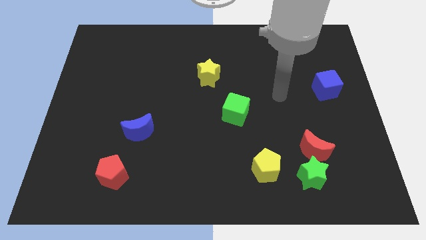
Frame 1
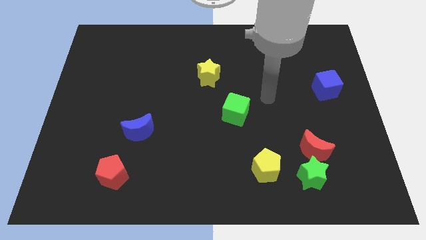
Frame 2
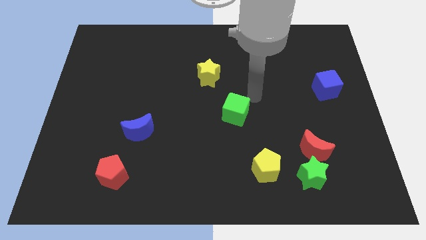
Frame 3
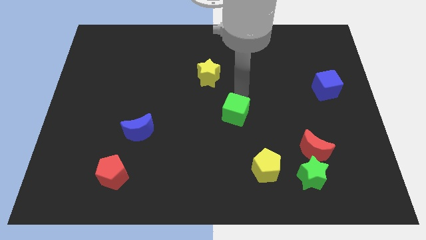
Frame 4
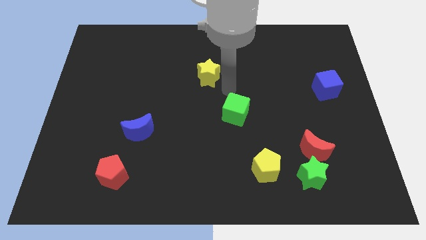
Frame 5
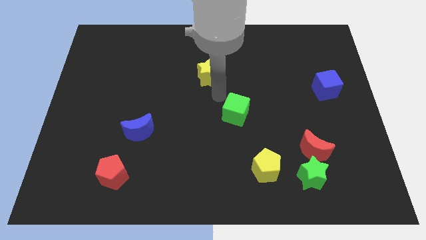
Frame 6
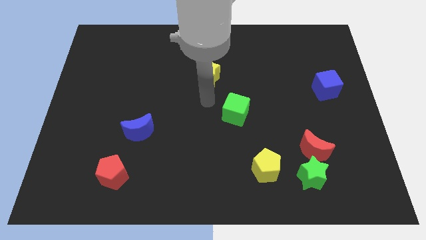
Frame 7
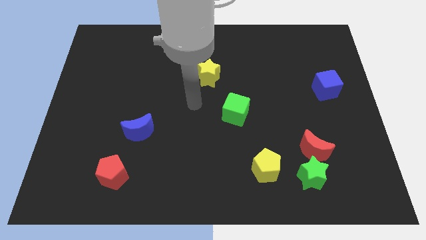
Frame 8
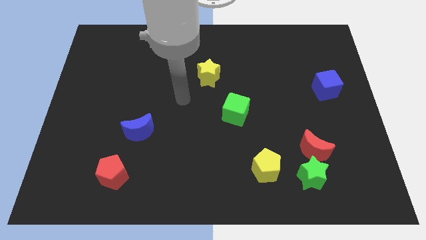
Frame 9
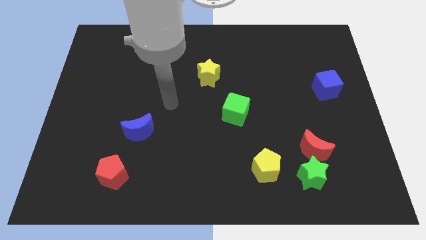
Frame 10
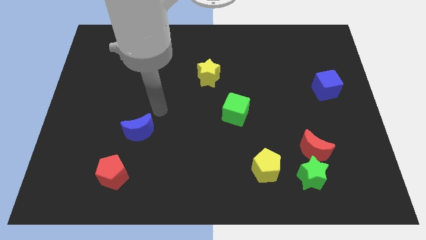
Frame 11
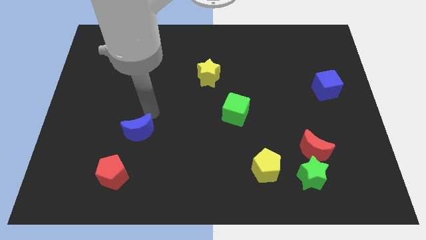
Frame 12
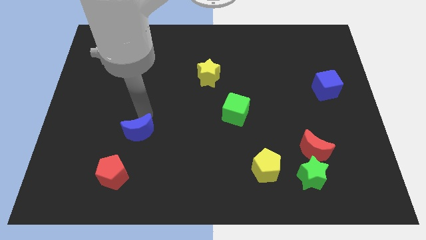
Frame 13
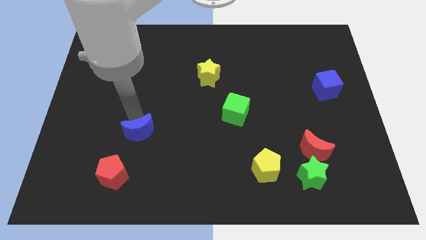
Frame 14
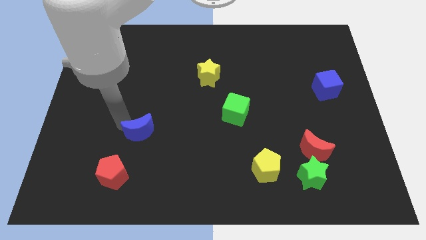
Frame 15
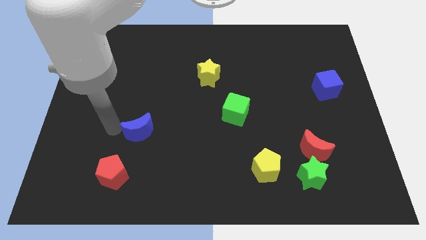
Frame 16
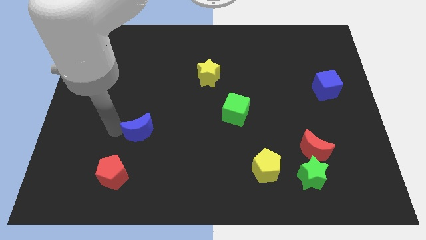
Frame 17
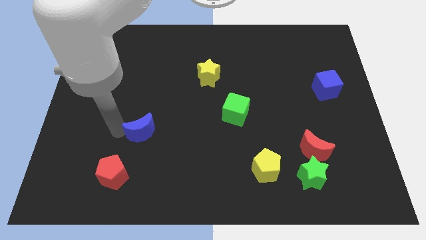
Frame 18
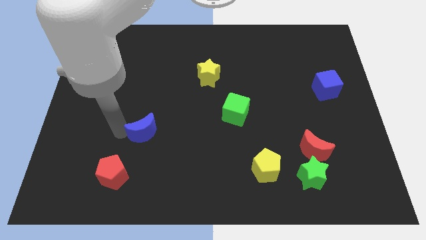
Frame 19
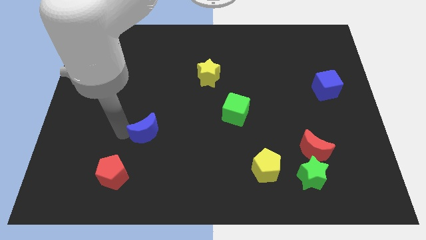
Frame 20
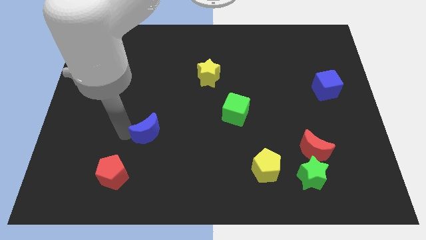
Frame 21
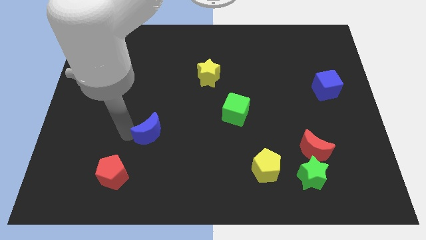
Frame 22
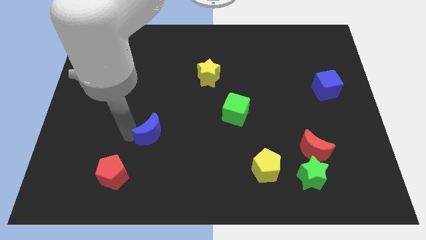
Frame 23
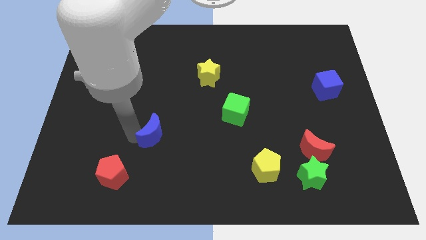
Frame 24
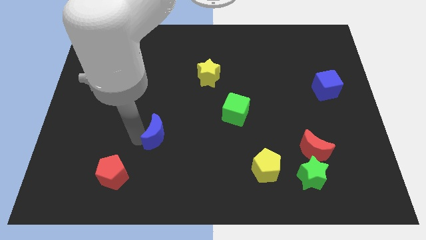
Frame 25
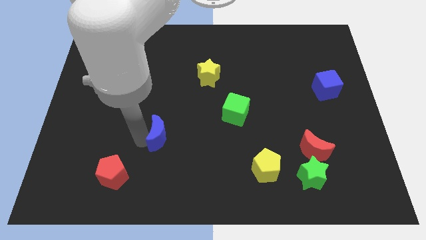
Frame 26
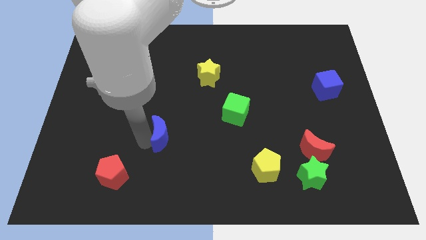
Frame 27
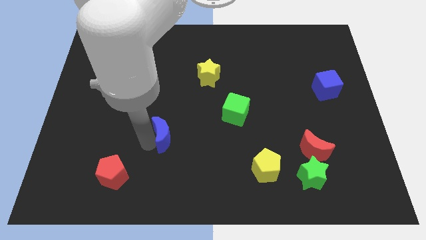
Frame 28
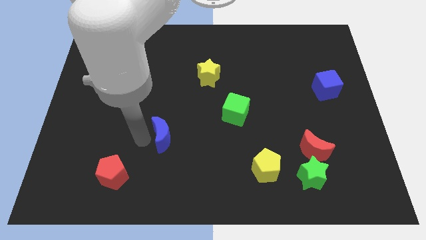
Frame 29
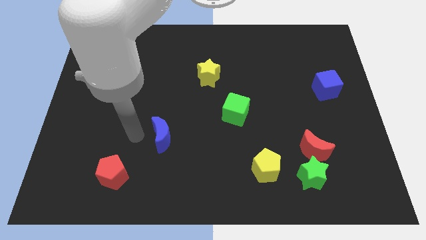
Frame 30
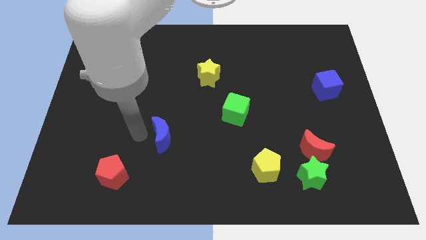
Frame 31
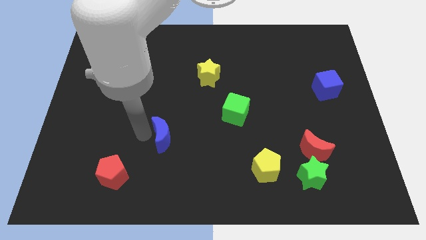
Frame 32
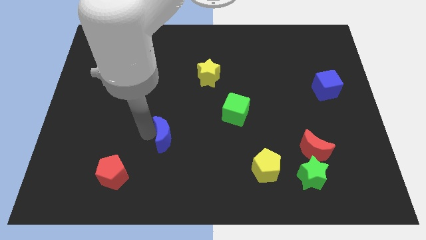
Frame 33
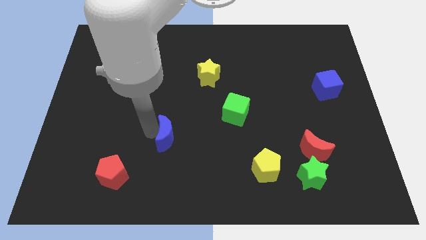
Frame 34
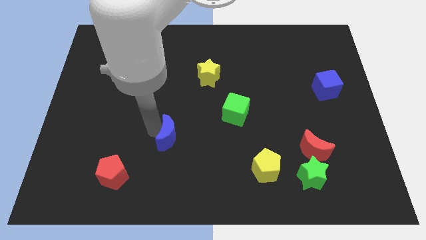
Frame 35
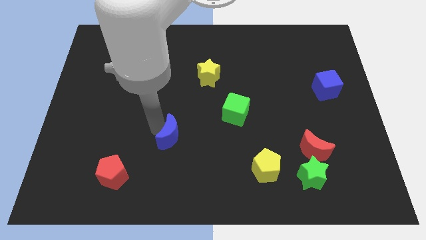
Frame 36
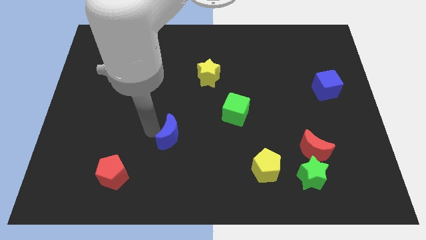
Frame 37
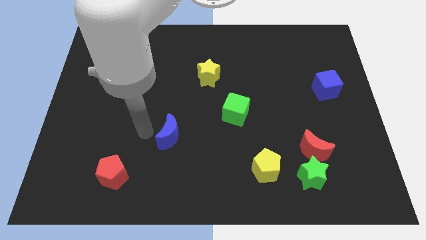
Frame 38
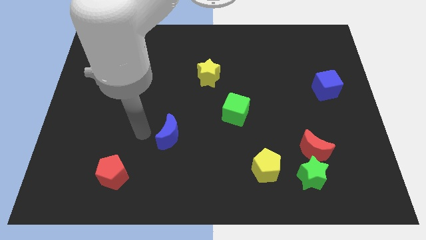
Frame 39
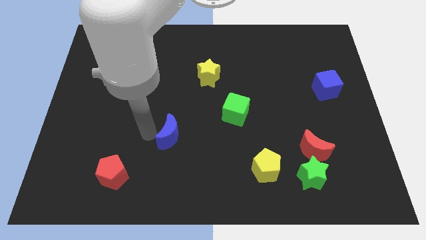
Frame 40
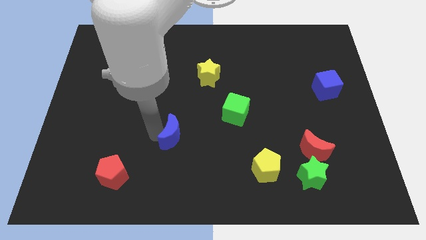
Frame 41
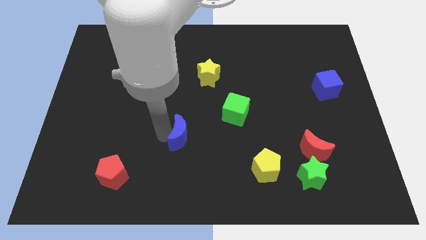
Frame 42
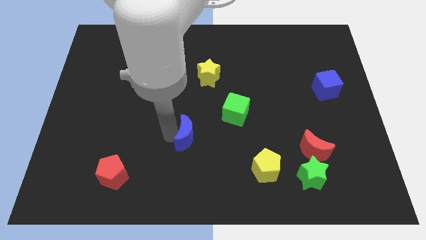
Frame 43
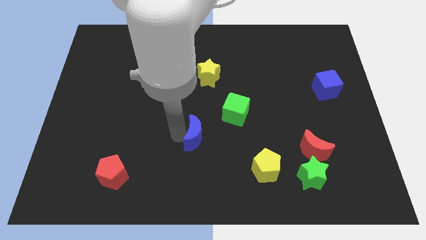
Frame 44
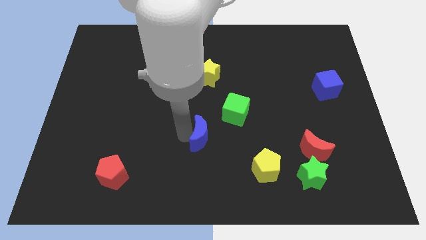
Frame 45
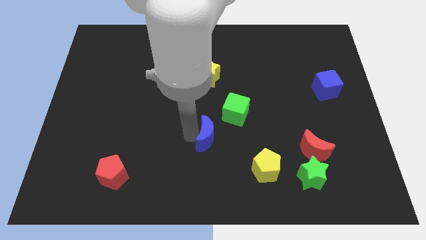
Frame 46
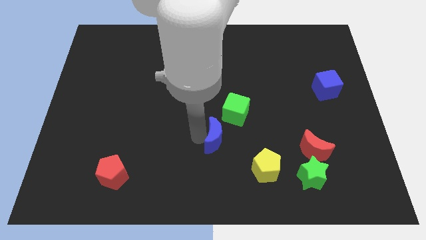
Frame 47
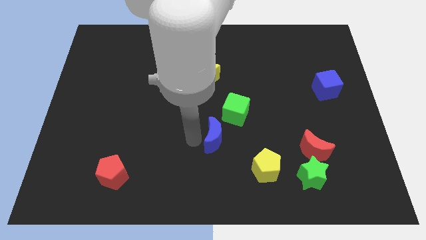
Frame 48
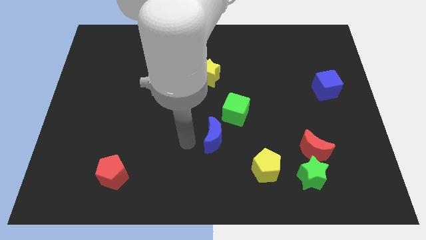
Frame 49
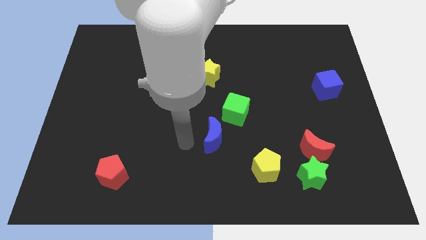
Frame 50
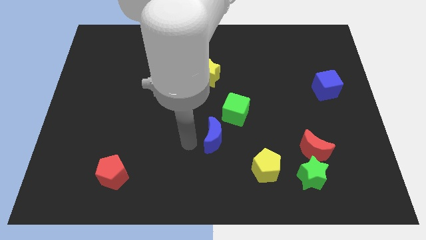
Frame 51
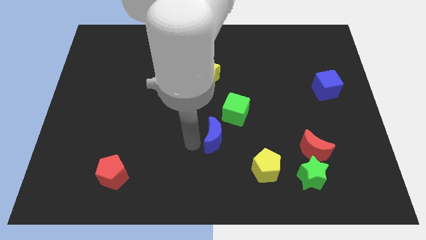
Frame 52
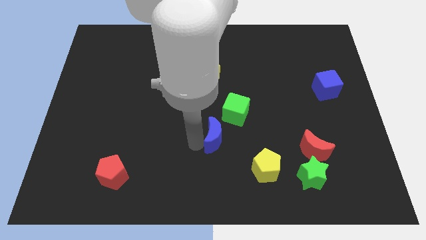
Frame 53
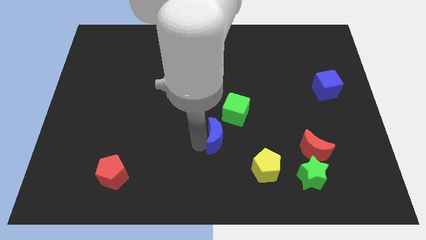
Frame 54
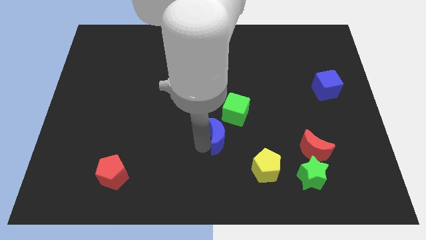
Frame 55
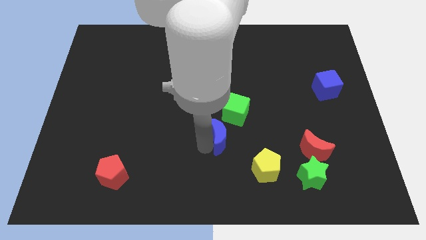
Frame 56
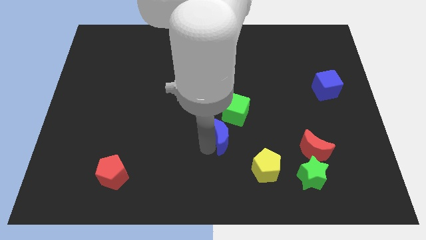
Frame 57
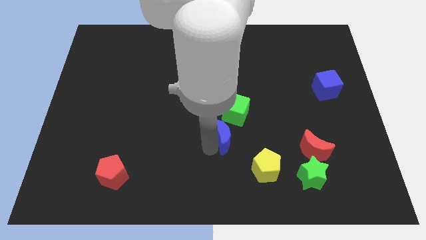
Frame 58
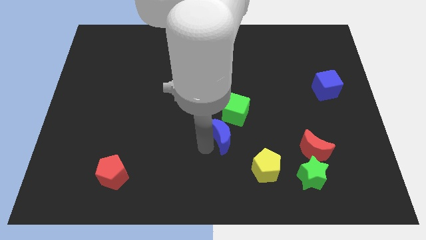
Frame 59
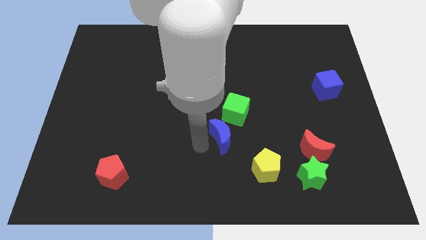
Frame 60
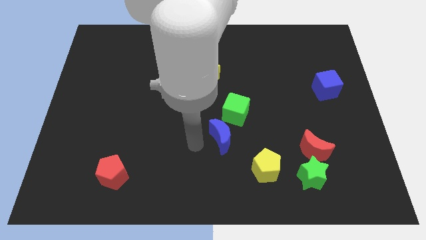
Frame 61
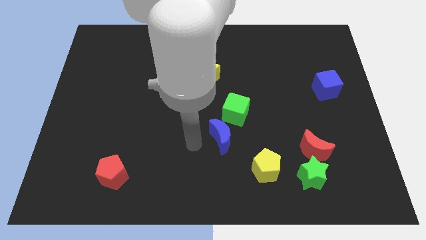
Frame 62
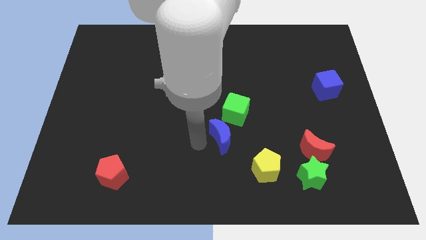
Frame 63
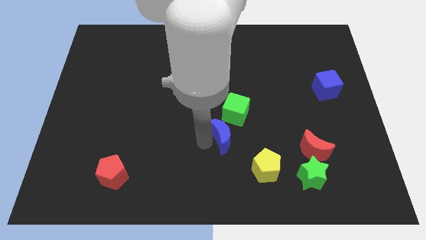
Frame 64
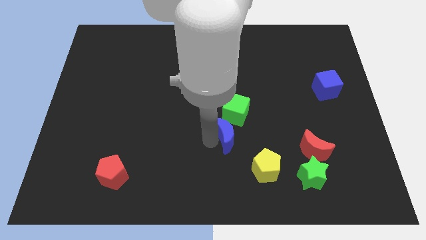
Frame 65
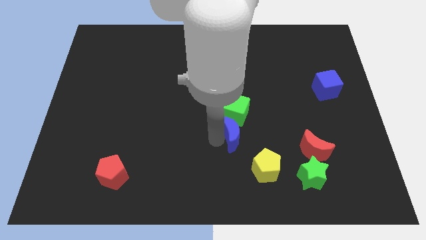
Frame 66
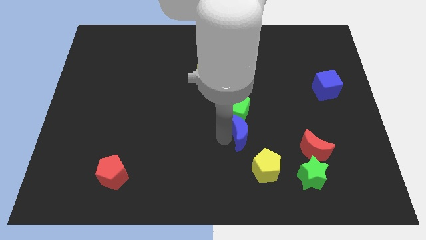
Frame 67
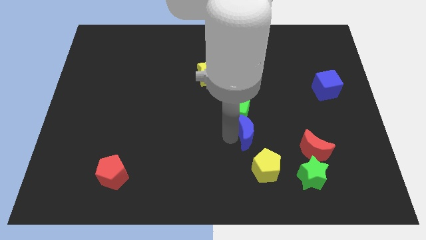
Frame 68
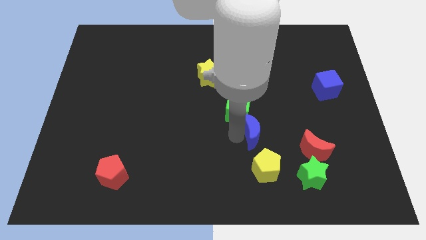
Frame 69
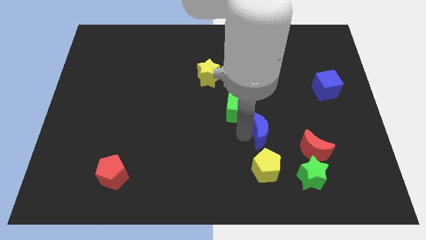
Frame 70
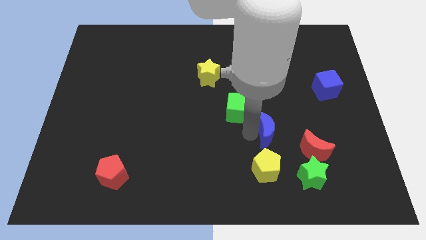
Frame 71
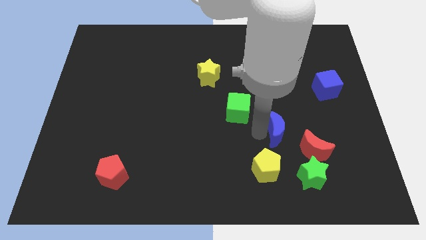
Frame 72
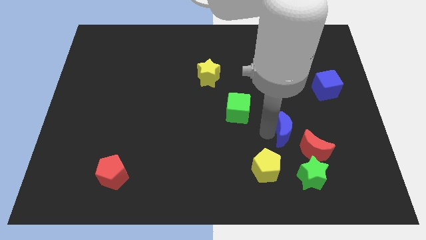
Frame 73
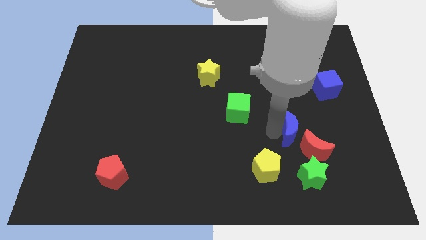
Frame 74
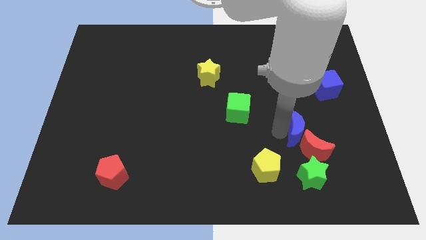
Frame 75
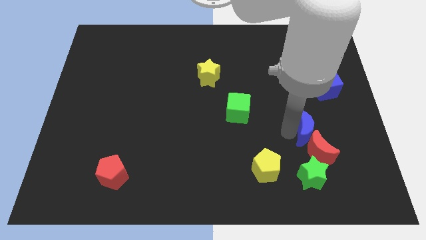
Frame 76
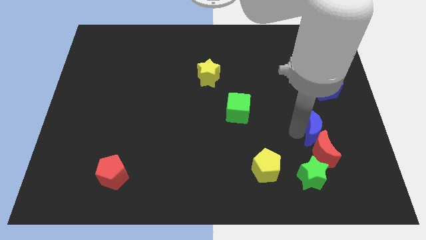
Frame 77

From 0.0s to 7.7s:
put the blue moon to the top right side of the red moon
